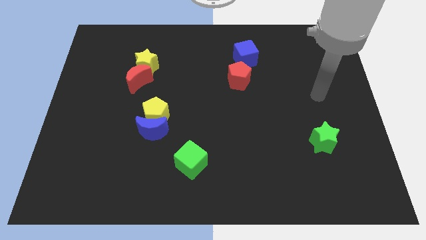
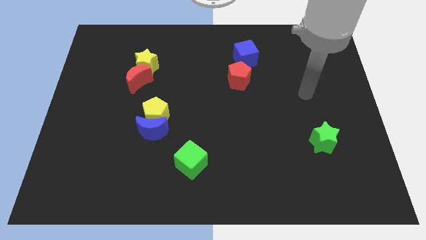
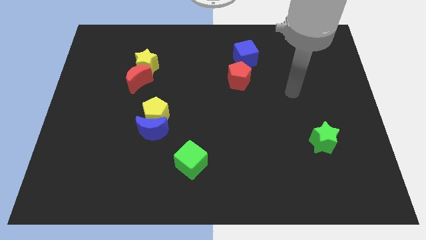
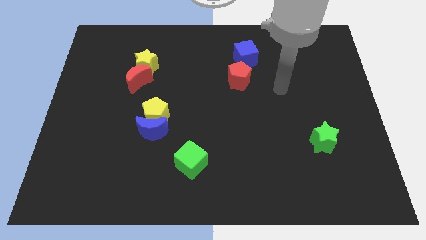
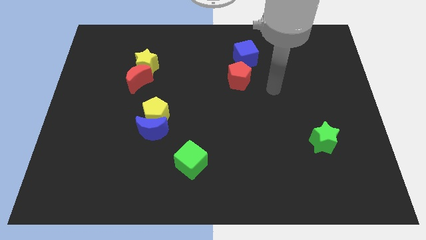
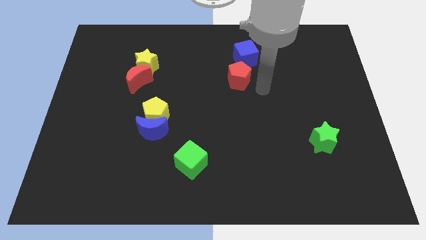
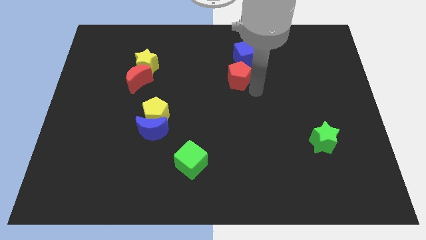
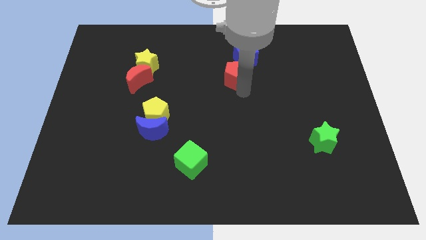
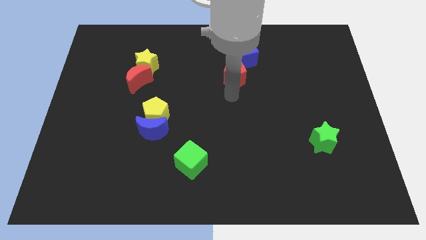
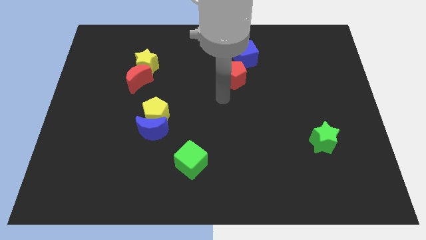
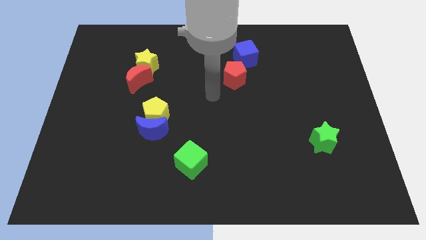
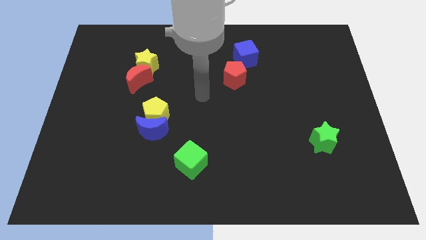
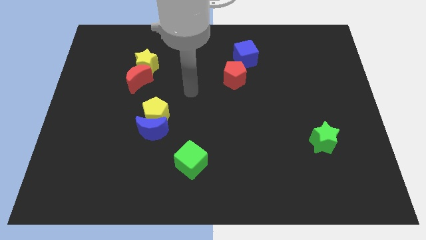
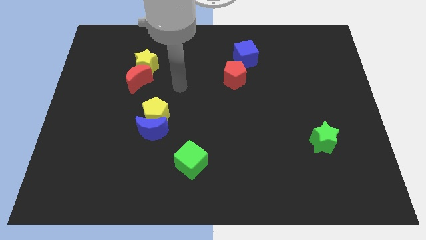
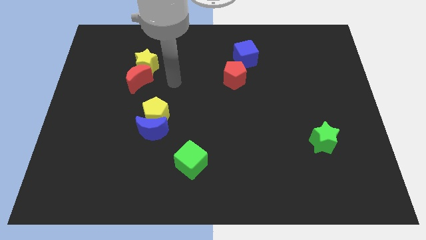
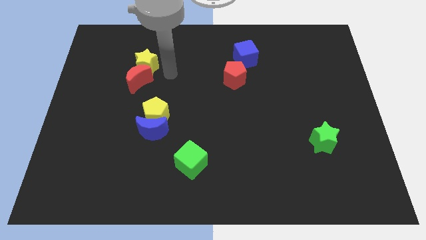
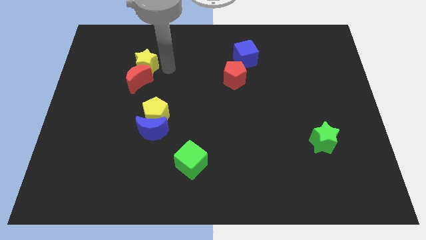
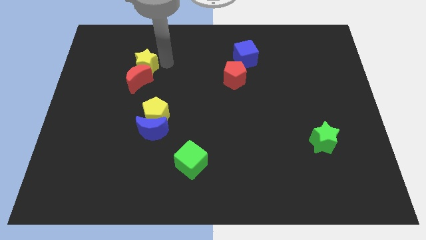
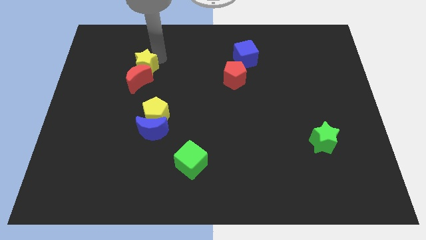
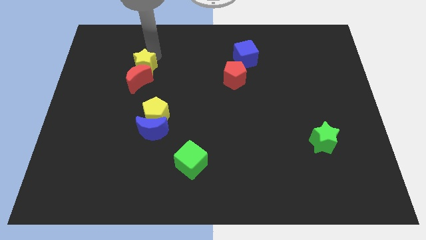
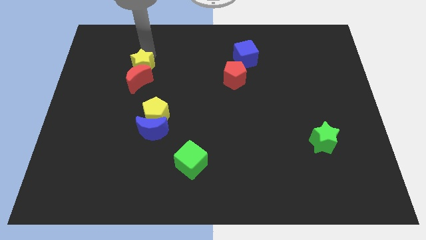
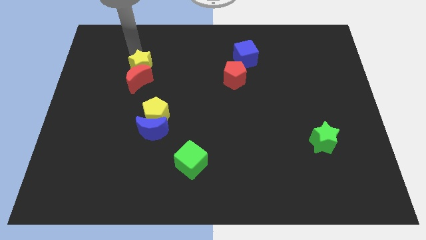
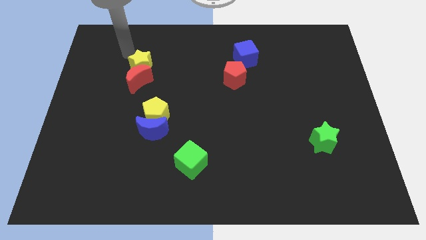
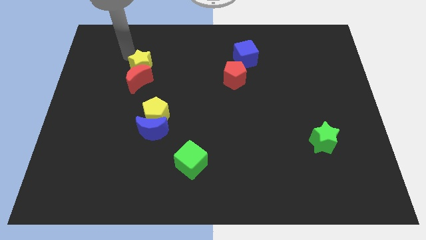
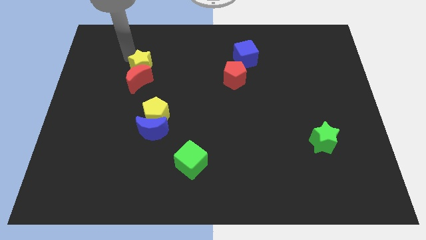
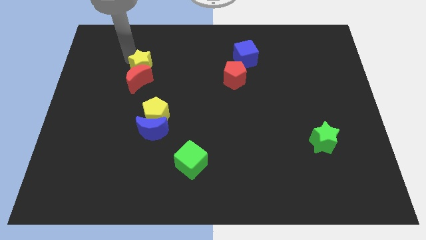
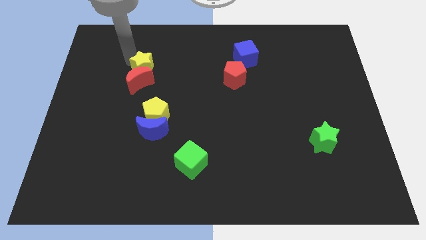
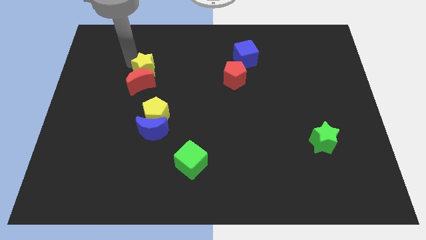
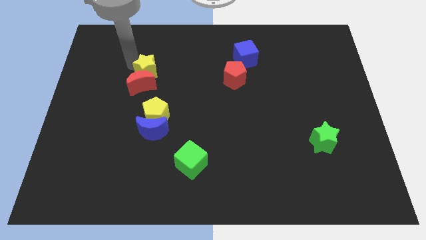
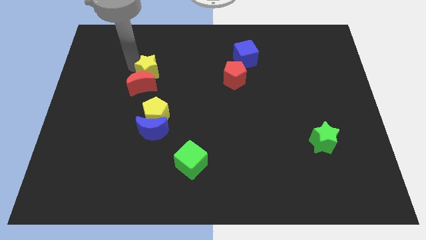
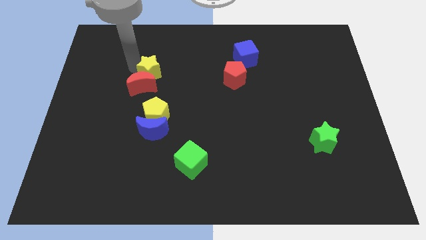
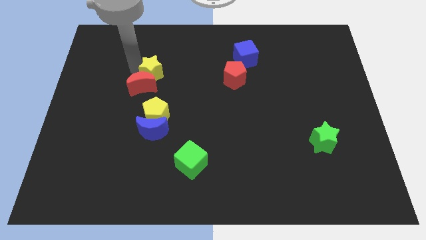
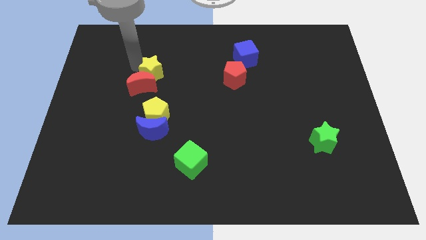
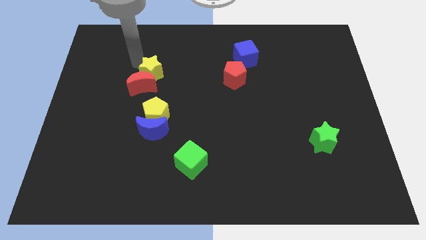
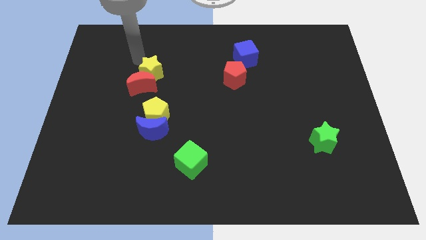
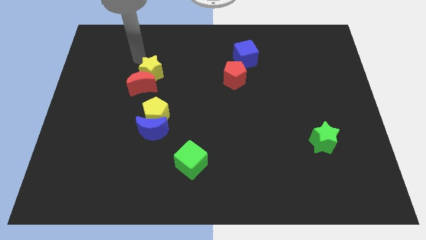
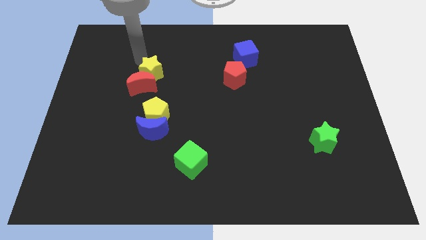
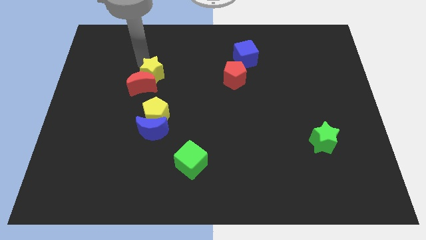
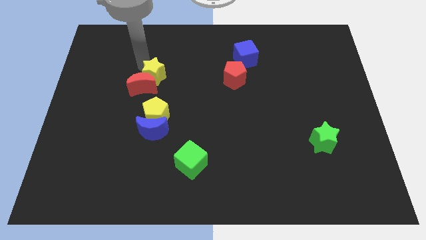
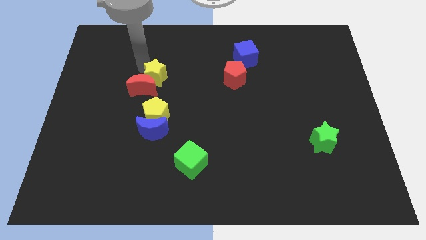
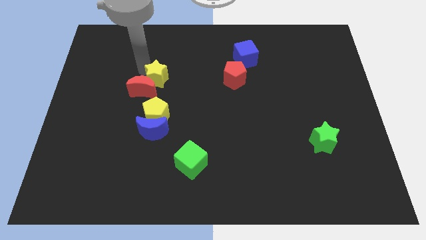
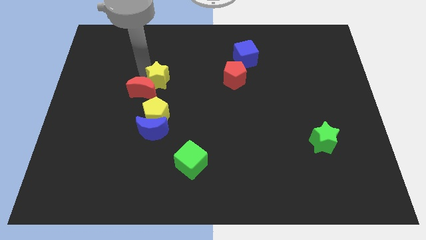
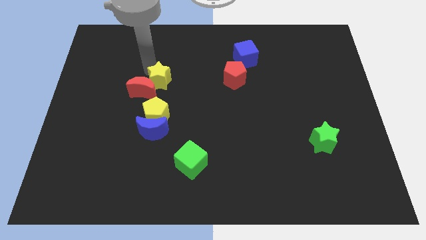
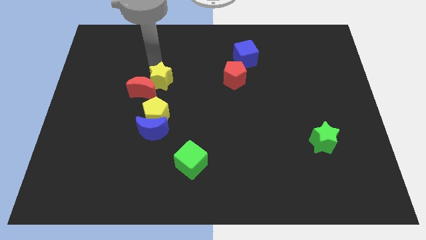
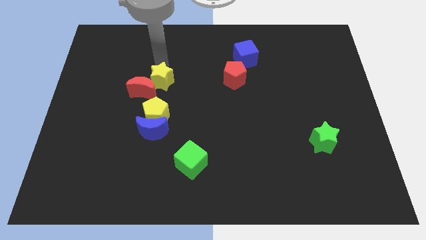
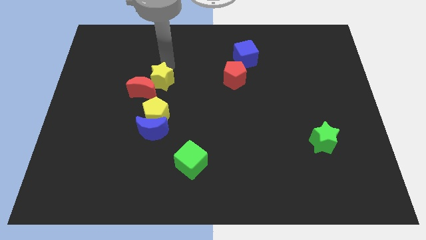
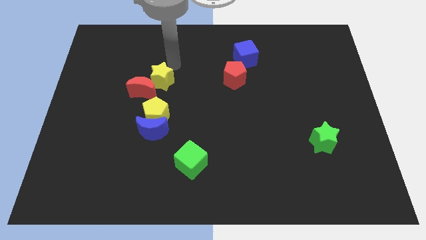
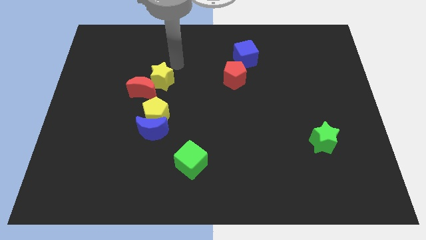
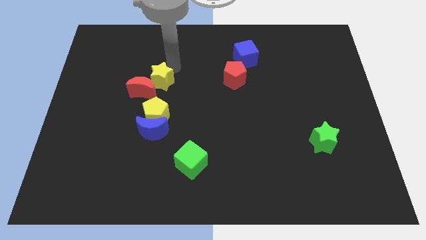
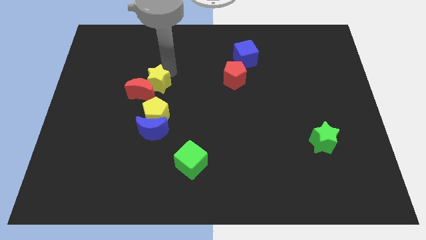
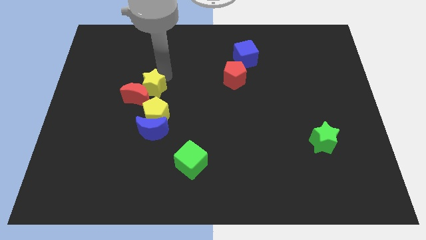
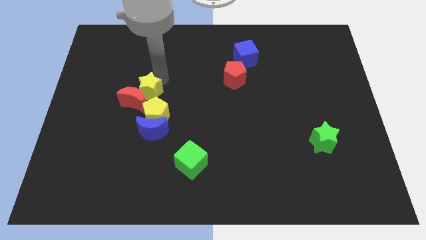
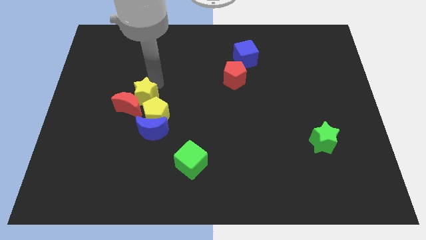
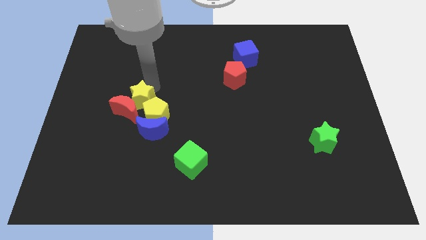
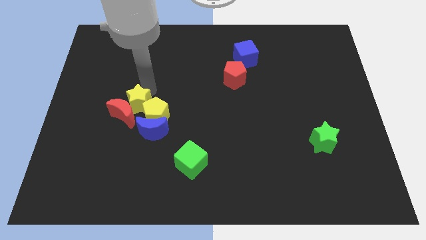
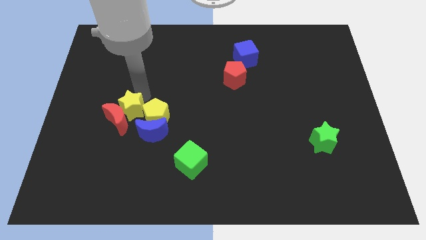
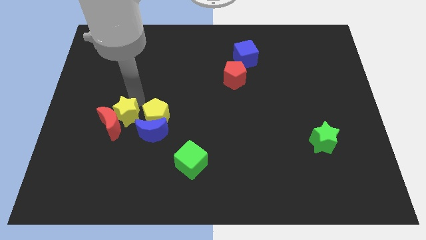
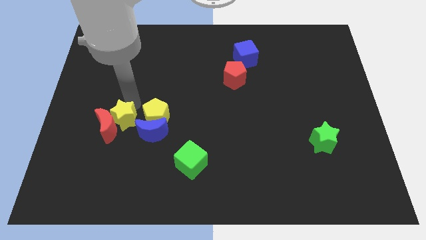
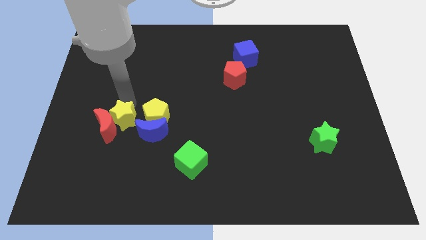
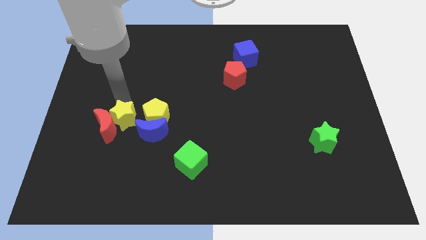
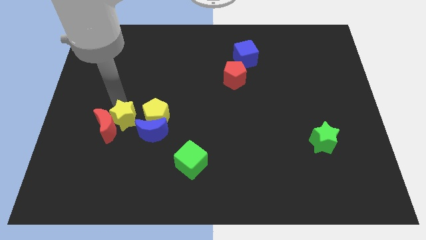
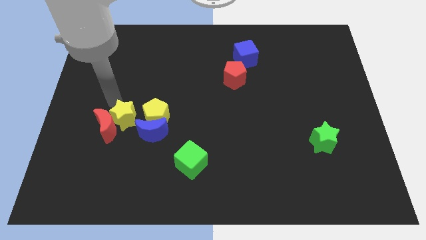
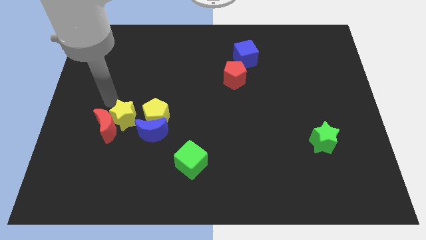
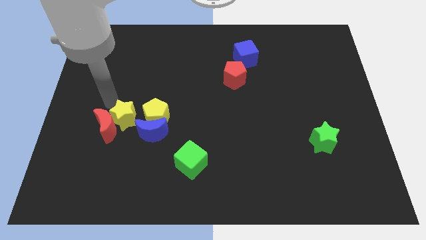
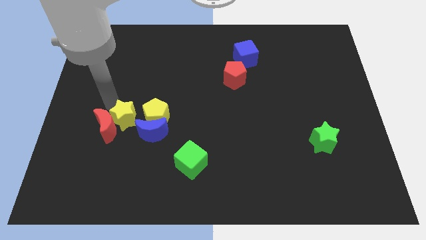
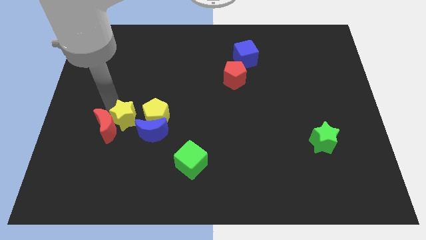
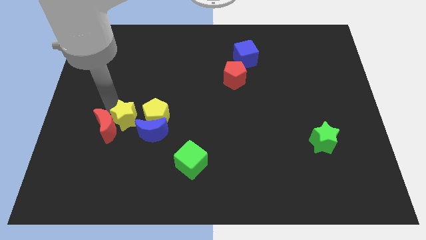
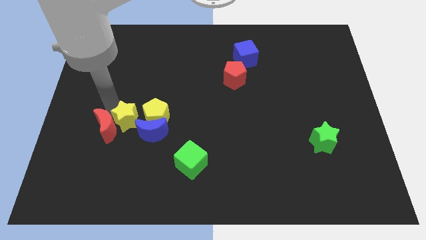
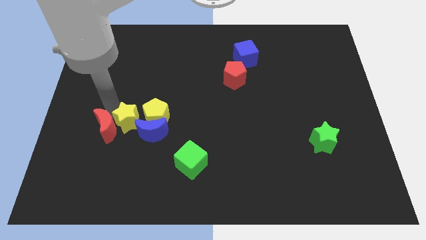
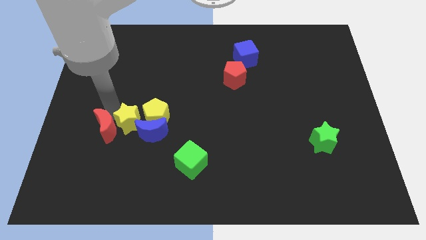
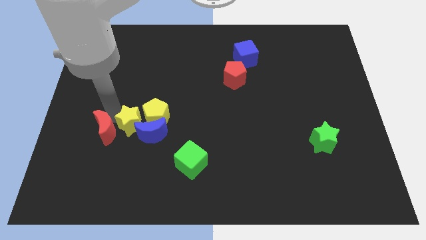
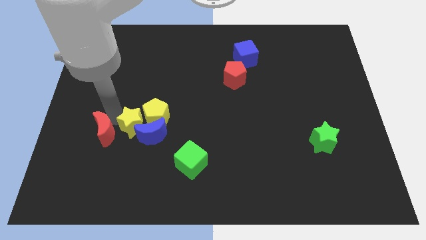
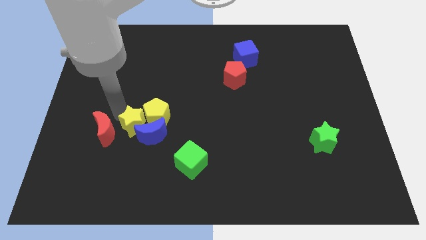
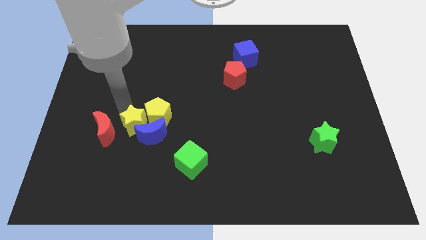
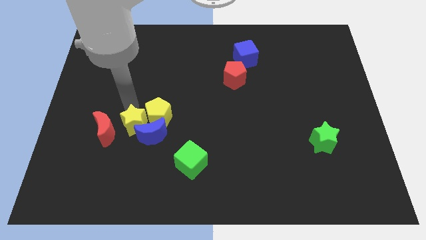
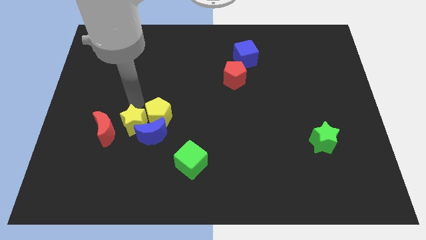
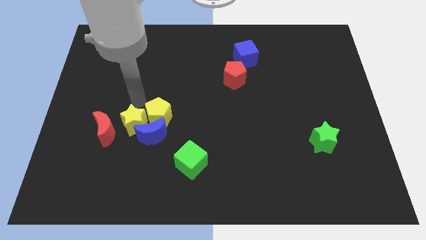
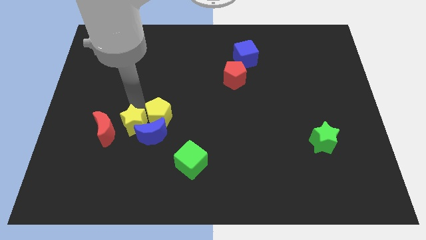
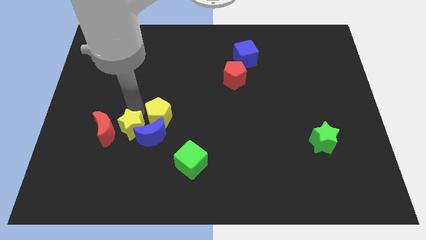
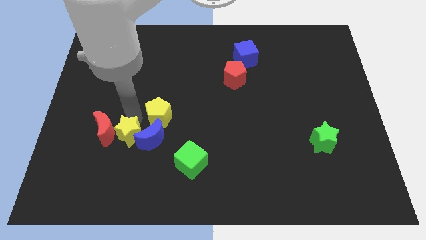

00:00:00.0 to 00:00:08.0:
push the yellow star downwards
